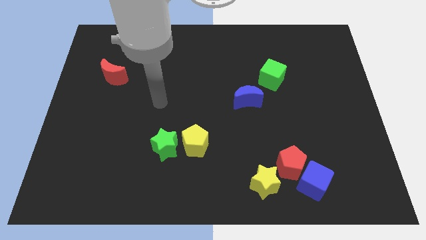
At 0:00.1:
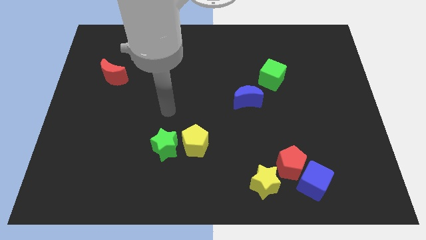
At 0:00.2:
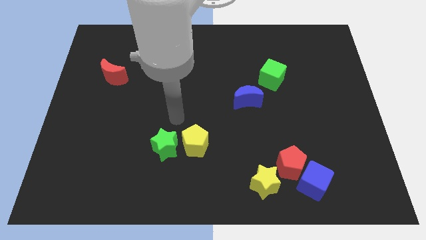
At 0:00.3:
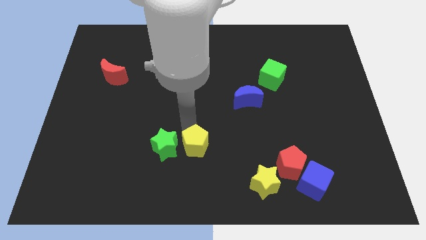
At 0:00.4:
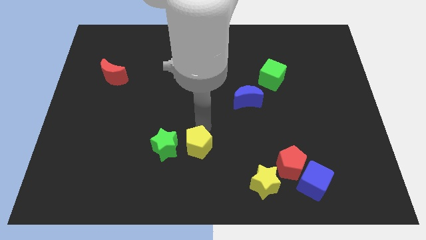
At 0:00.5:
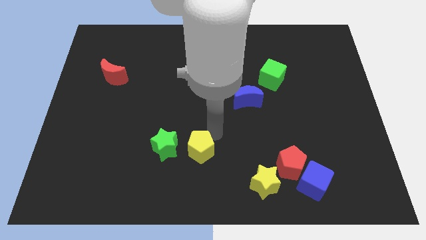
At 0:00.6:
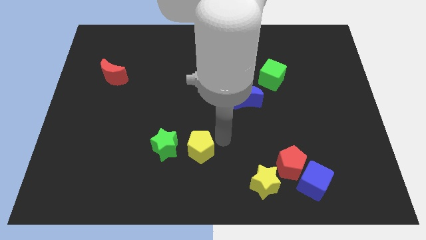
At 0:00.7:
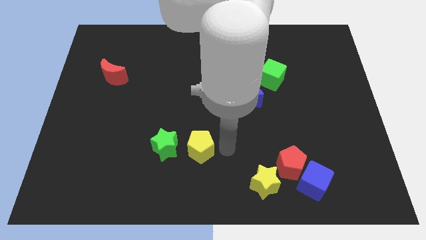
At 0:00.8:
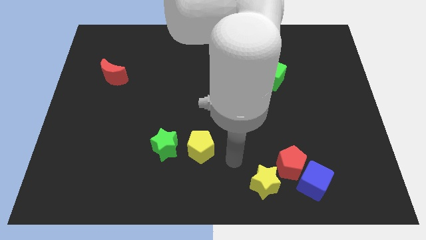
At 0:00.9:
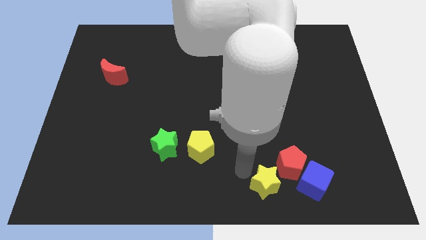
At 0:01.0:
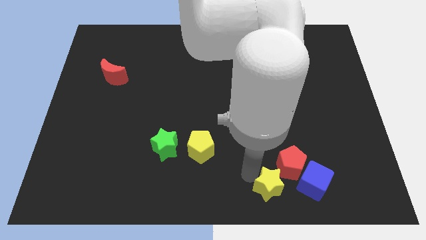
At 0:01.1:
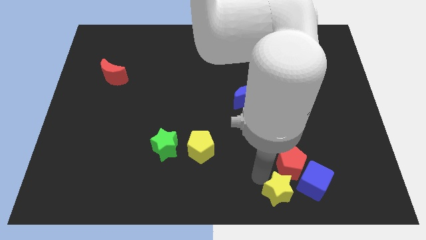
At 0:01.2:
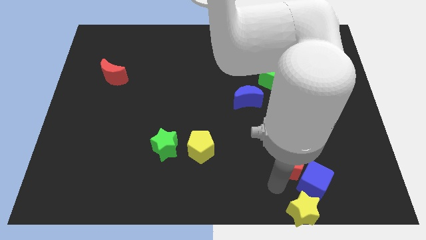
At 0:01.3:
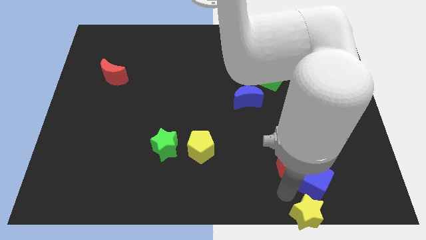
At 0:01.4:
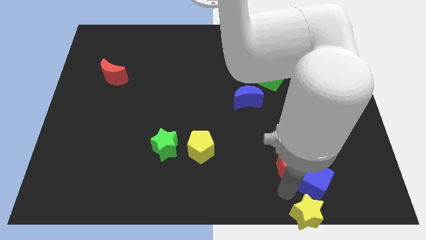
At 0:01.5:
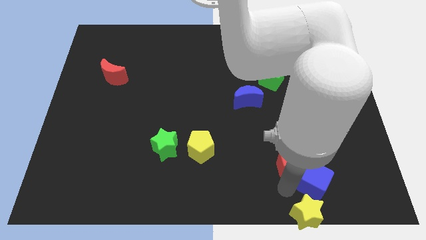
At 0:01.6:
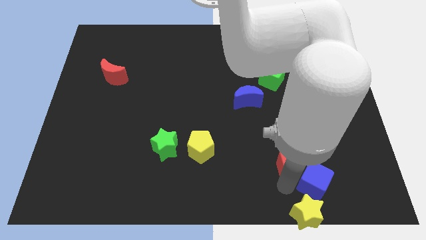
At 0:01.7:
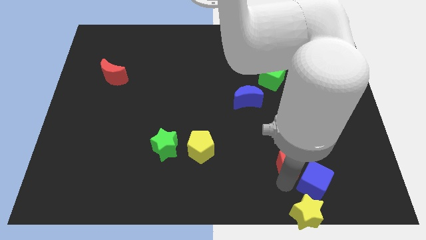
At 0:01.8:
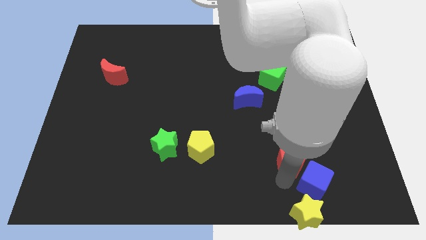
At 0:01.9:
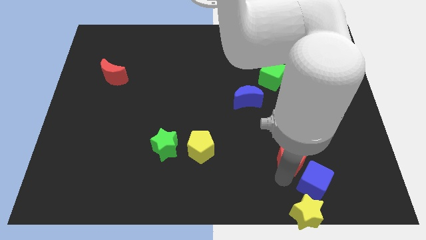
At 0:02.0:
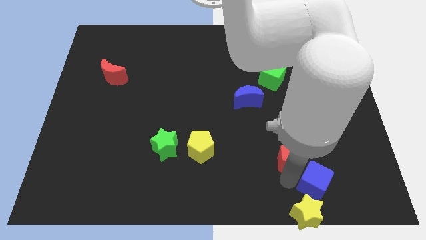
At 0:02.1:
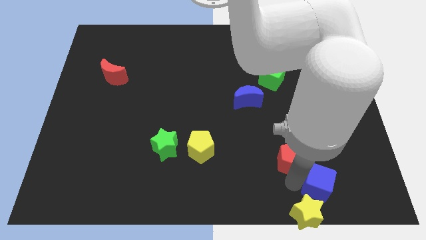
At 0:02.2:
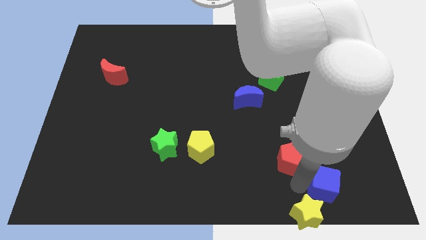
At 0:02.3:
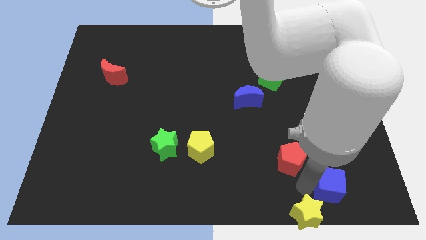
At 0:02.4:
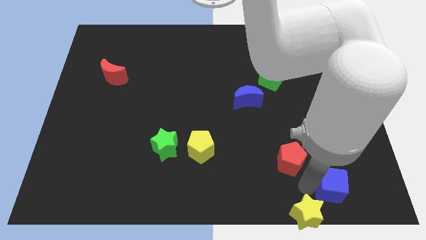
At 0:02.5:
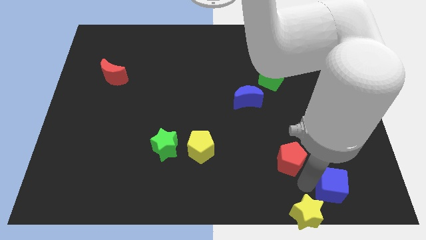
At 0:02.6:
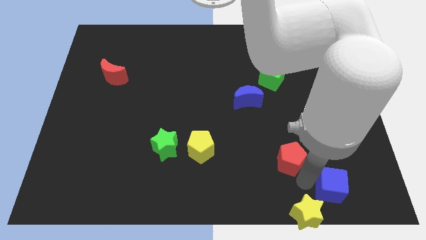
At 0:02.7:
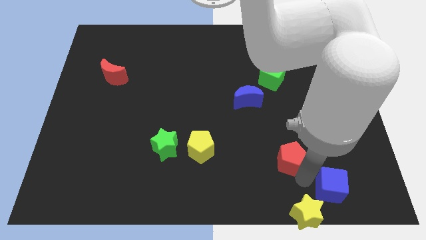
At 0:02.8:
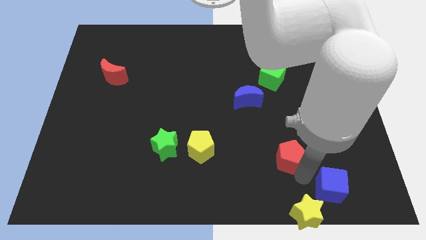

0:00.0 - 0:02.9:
move the red pentagon away from the blue cube and yellow star

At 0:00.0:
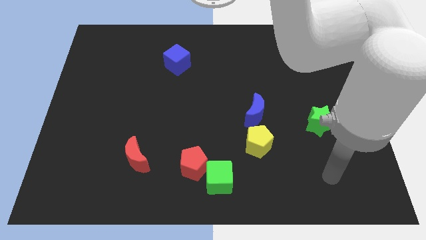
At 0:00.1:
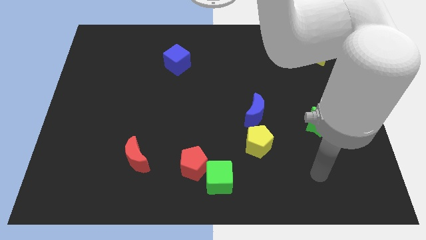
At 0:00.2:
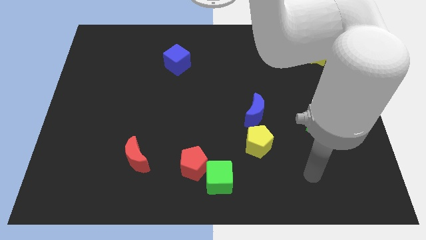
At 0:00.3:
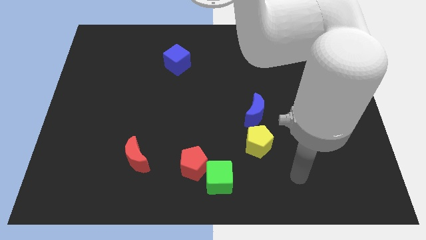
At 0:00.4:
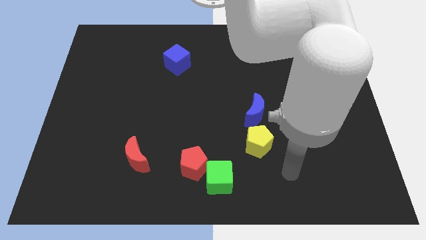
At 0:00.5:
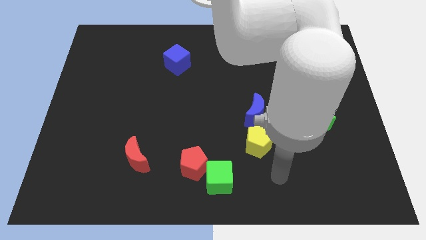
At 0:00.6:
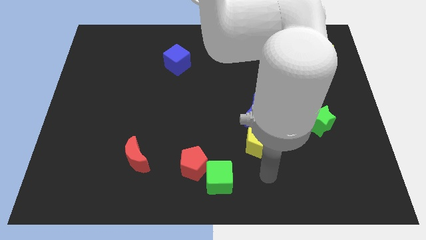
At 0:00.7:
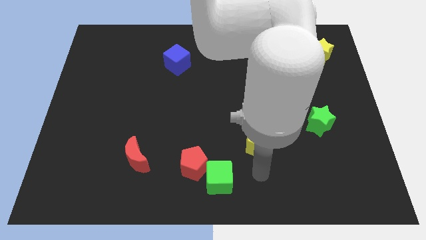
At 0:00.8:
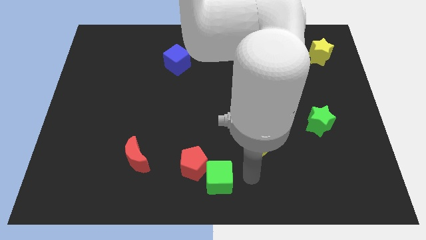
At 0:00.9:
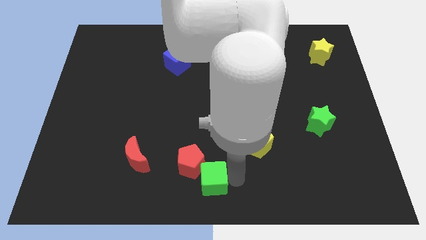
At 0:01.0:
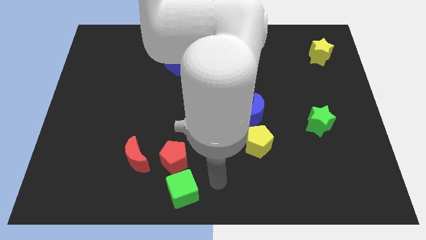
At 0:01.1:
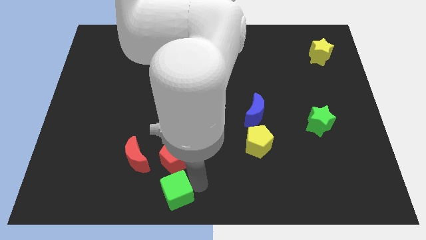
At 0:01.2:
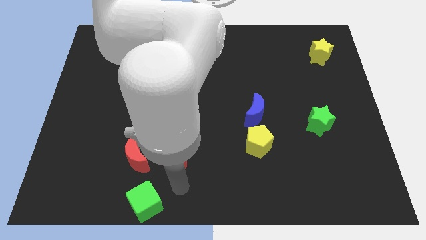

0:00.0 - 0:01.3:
move the red pentagon away from the green cube

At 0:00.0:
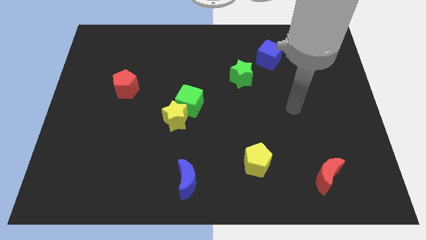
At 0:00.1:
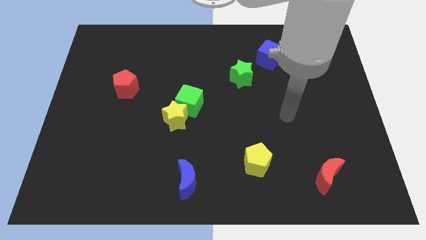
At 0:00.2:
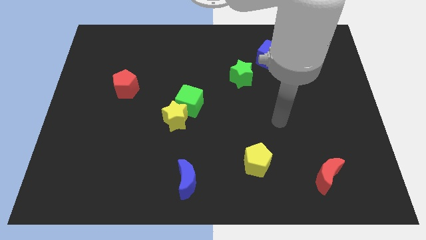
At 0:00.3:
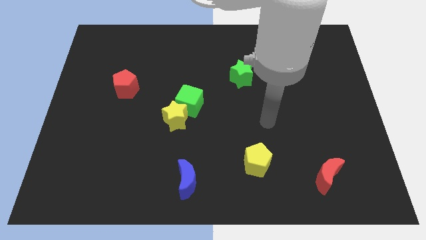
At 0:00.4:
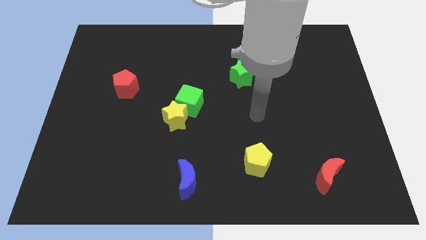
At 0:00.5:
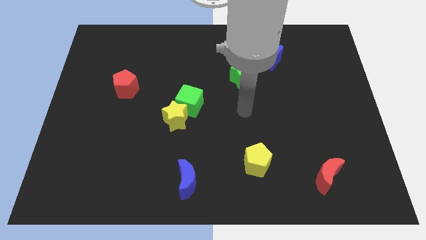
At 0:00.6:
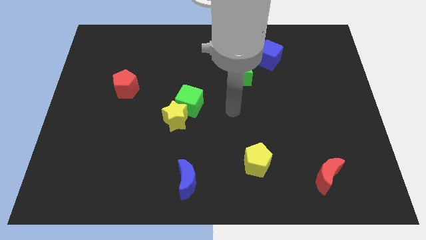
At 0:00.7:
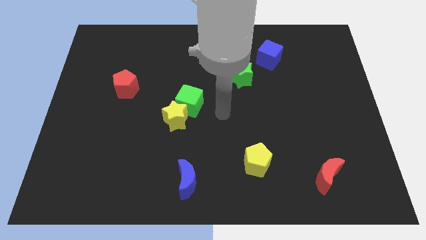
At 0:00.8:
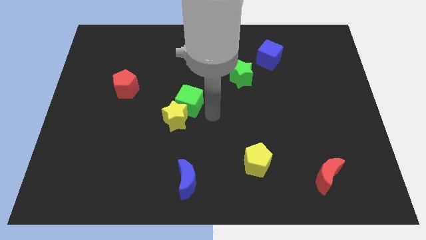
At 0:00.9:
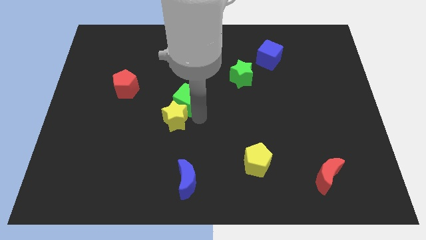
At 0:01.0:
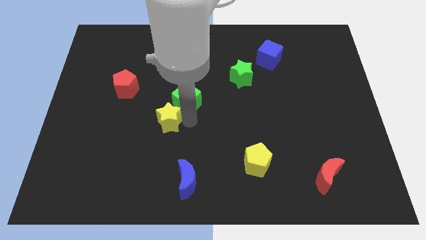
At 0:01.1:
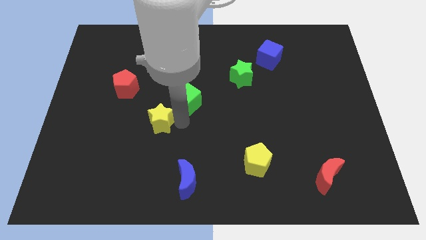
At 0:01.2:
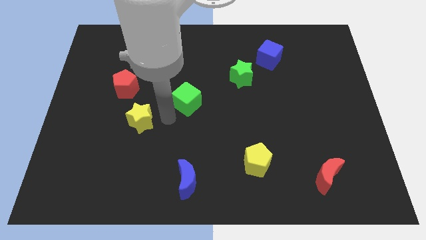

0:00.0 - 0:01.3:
separate the green cube from the yellow star

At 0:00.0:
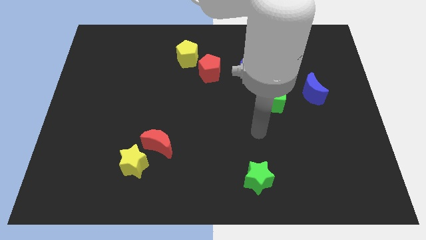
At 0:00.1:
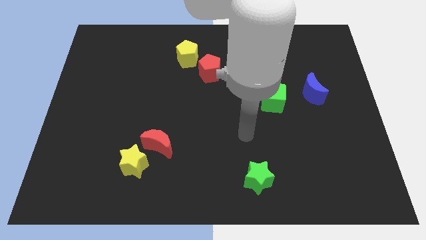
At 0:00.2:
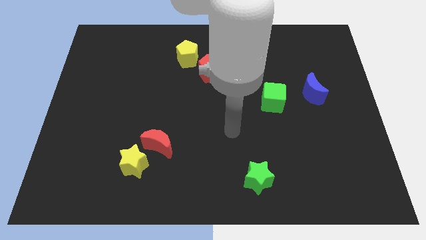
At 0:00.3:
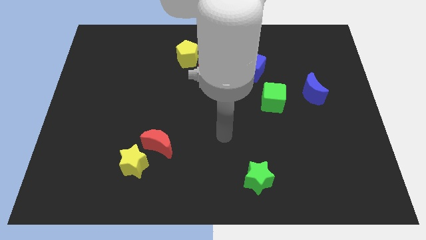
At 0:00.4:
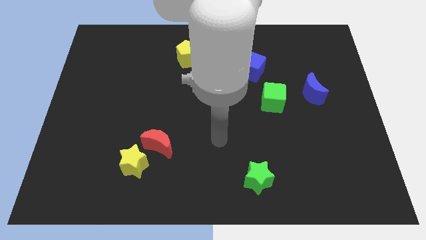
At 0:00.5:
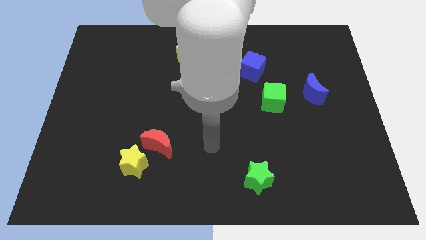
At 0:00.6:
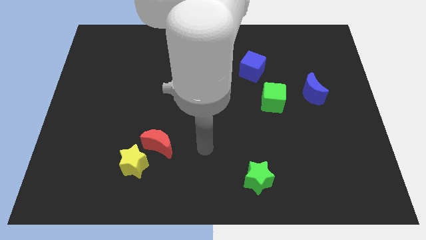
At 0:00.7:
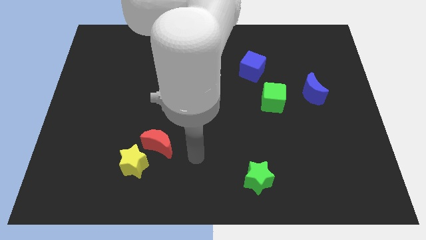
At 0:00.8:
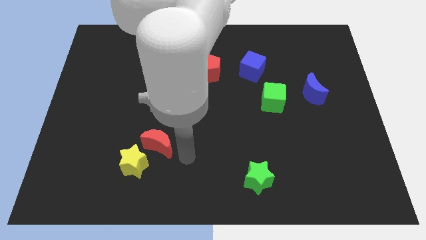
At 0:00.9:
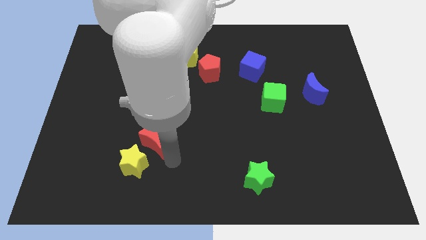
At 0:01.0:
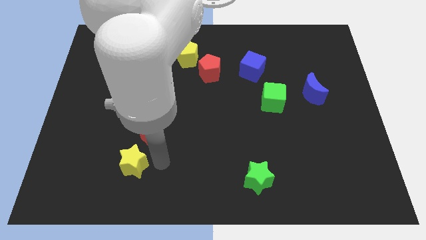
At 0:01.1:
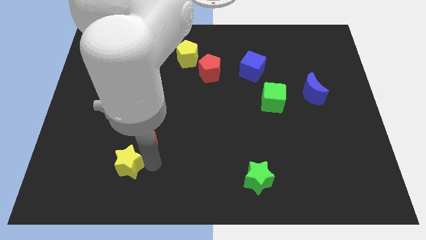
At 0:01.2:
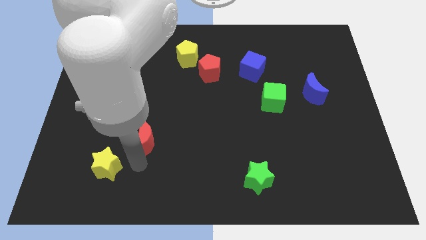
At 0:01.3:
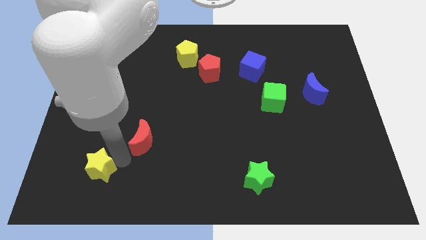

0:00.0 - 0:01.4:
pull the red moon apart from the yellow star

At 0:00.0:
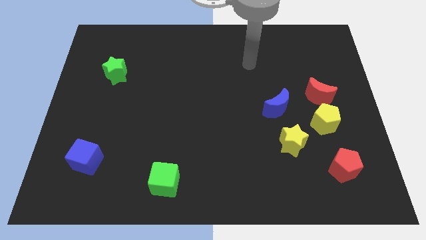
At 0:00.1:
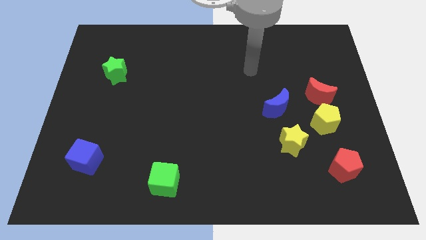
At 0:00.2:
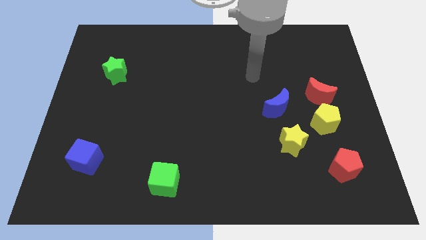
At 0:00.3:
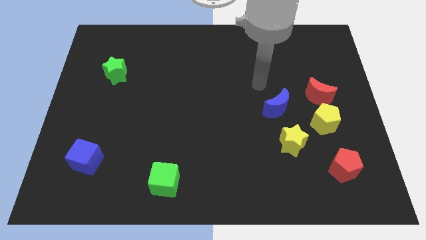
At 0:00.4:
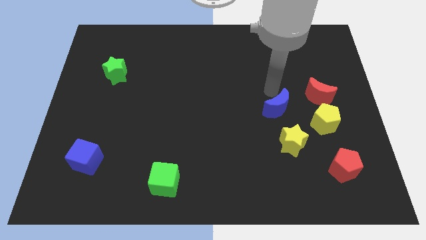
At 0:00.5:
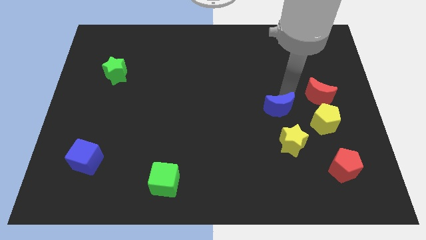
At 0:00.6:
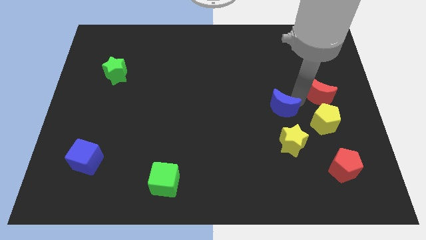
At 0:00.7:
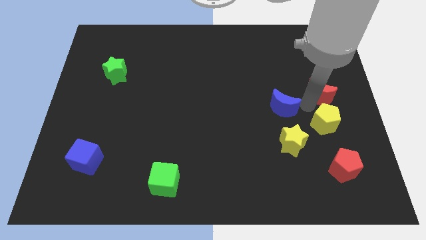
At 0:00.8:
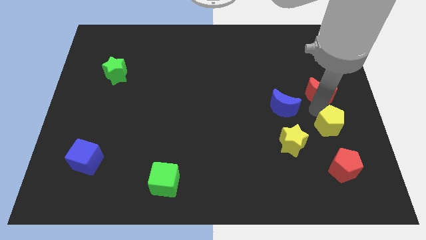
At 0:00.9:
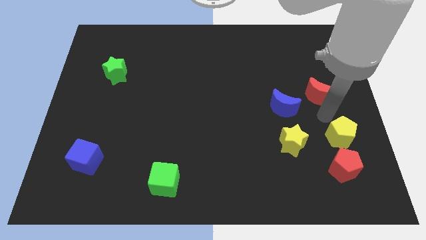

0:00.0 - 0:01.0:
move the red moon away from the yellow pentagon

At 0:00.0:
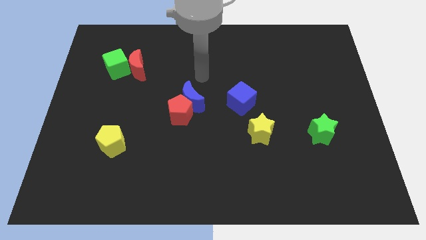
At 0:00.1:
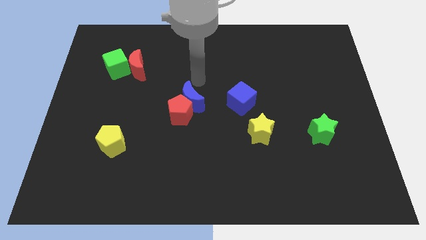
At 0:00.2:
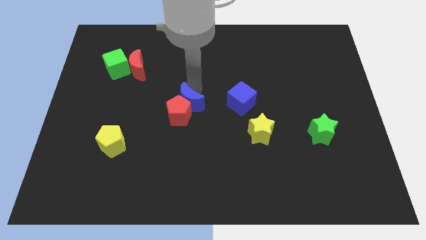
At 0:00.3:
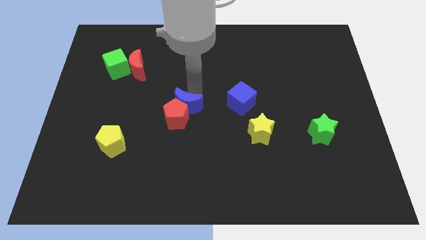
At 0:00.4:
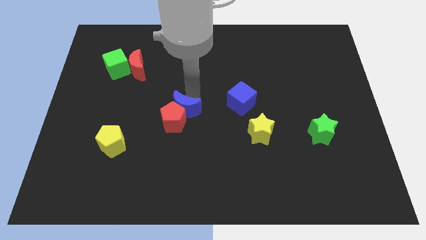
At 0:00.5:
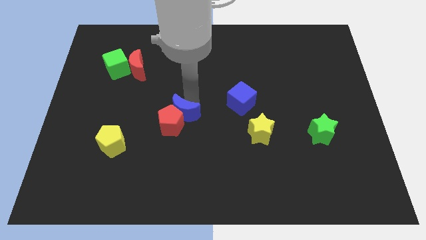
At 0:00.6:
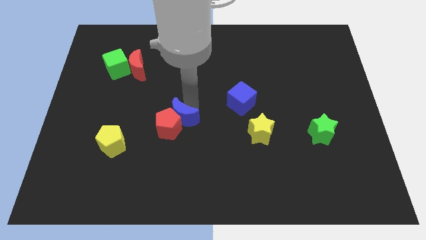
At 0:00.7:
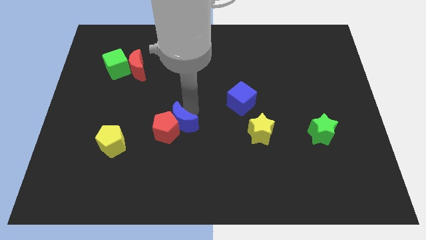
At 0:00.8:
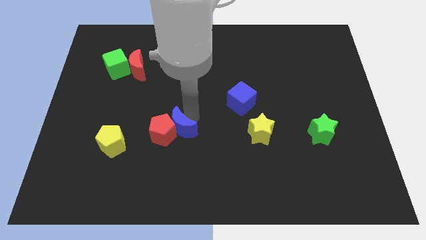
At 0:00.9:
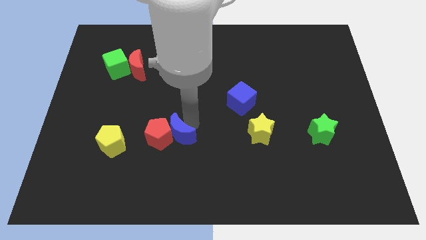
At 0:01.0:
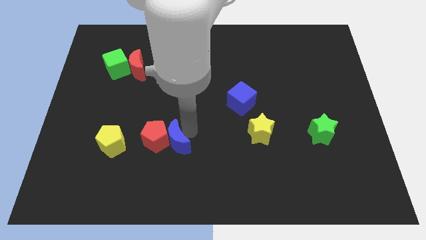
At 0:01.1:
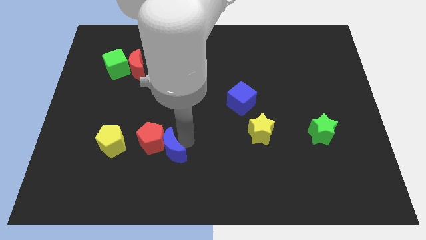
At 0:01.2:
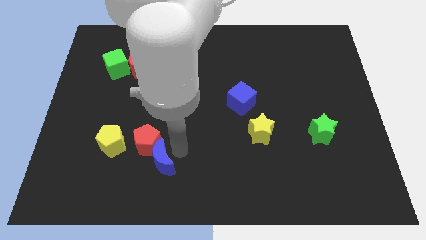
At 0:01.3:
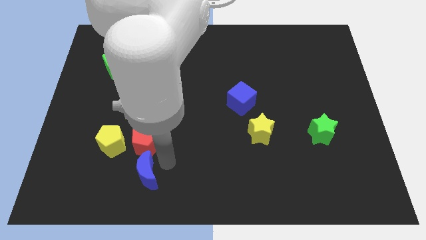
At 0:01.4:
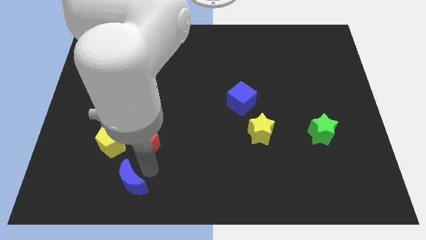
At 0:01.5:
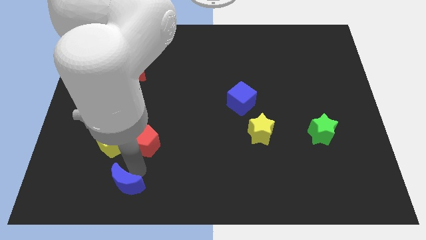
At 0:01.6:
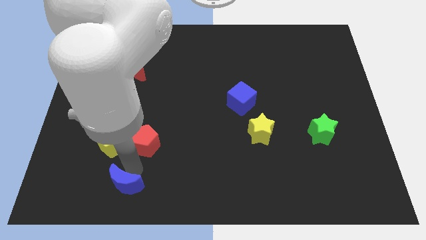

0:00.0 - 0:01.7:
pull the red pentagon apart from the blue moon
